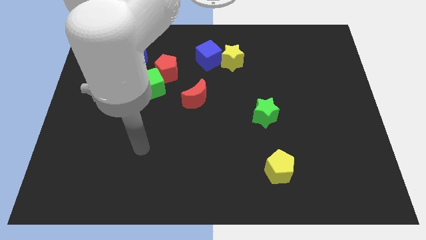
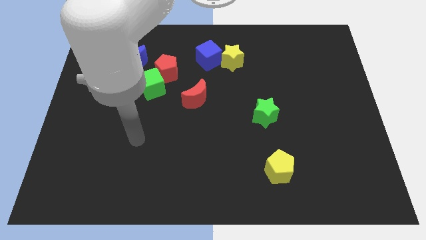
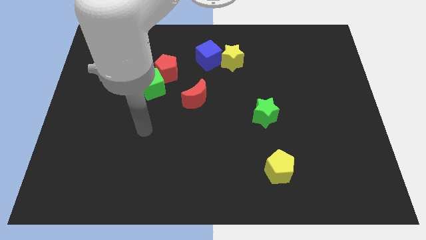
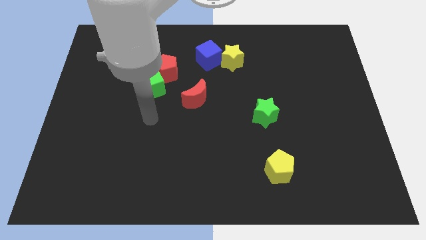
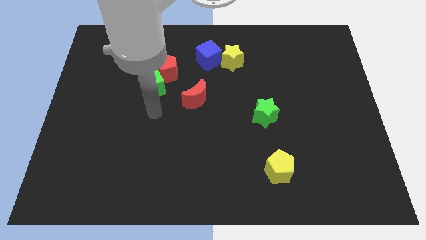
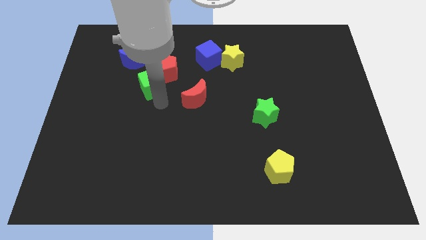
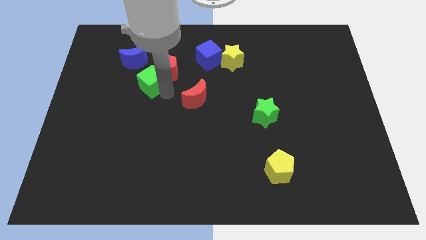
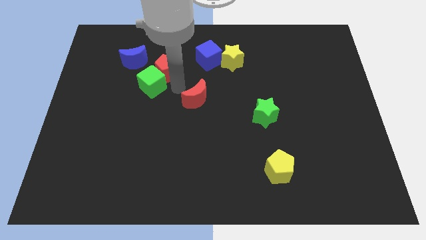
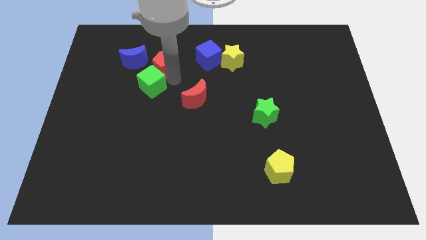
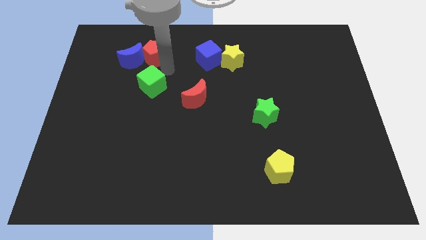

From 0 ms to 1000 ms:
separate the green cube from the red pentagon

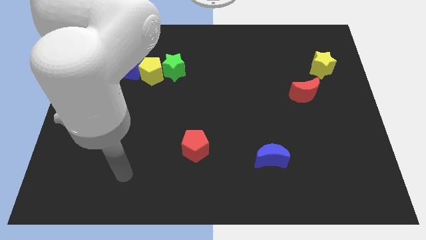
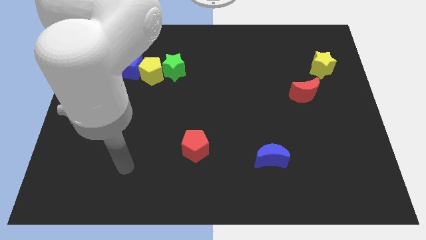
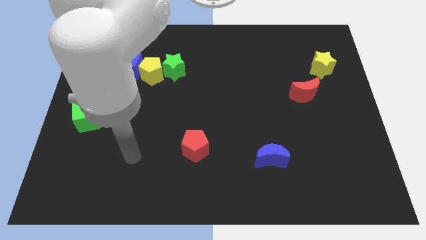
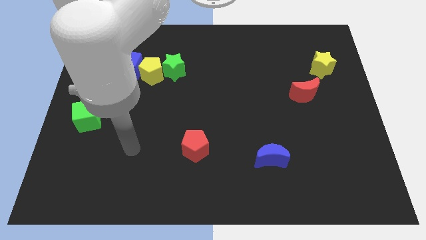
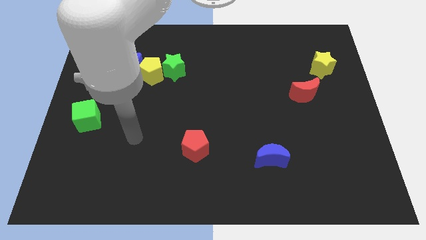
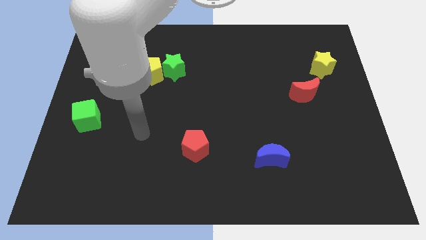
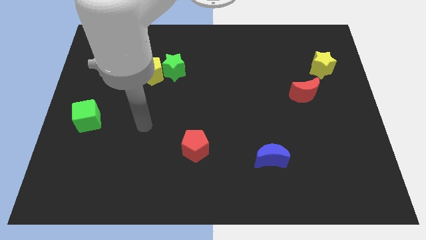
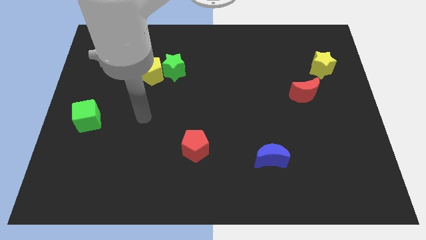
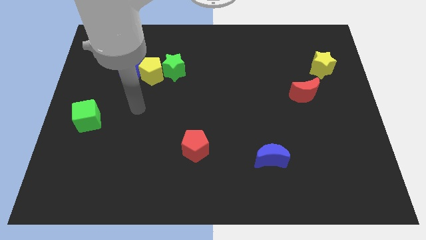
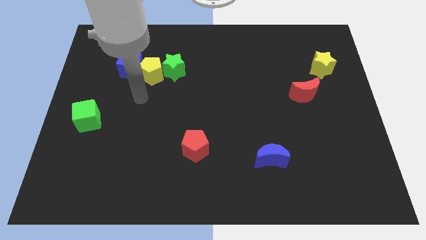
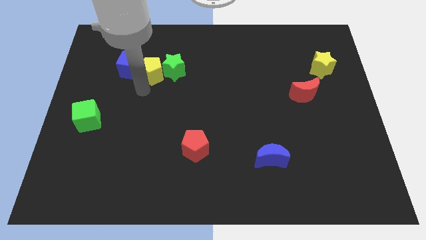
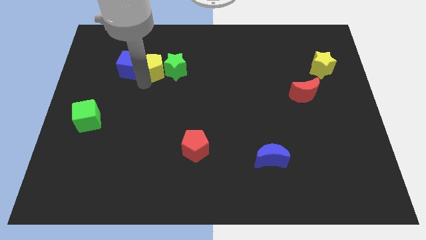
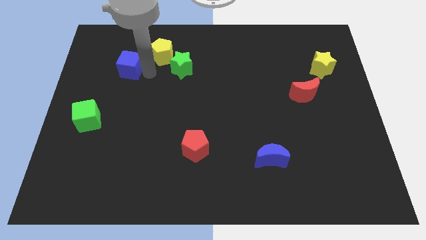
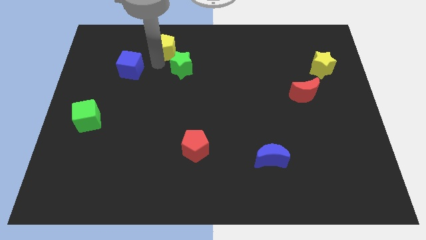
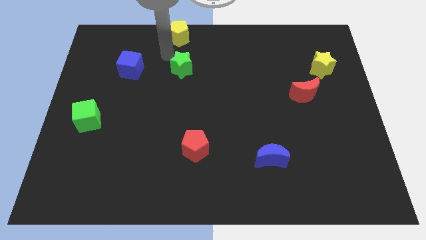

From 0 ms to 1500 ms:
separate the green star from the yellow pentagon

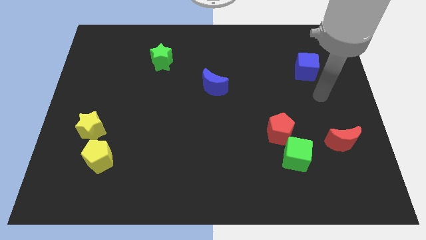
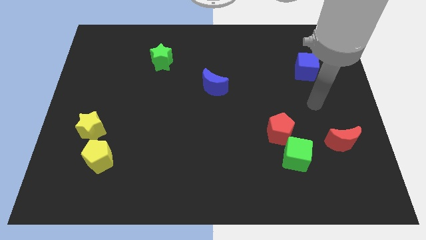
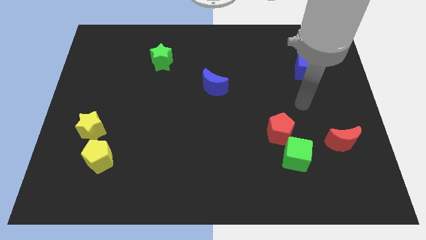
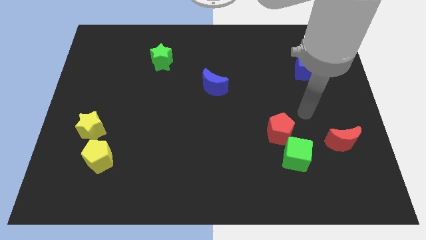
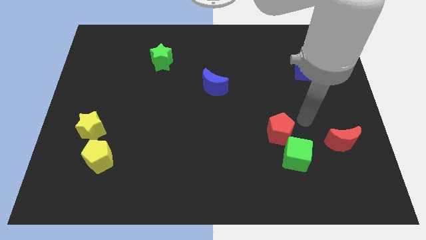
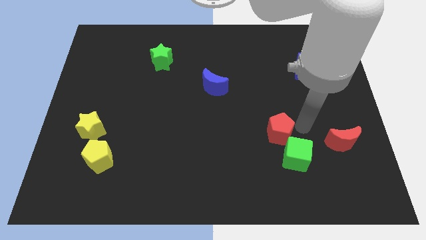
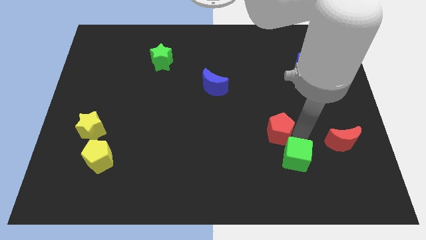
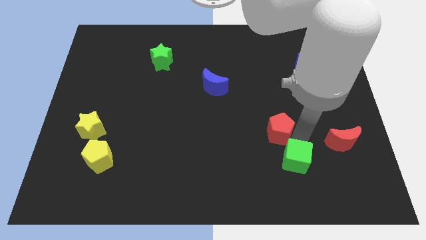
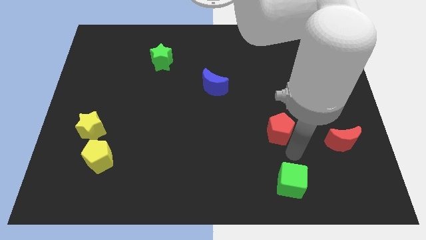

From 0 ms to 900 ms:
separate the red pentagon from the green cube

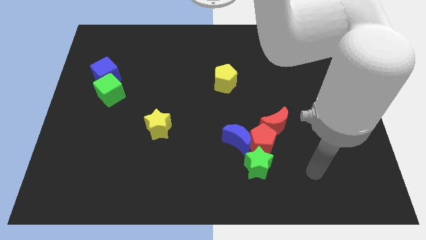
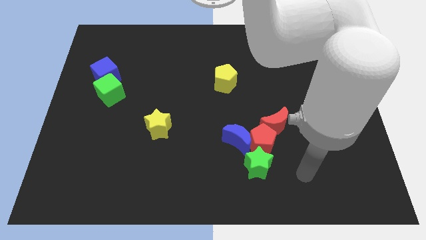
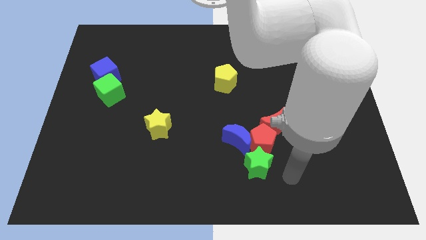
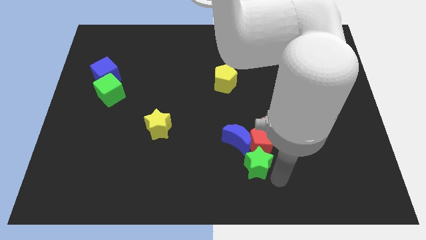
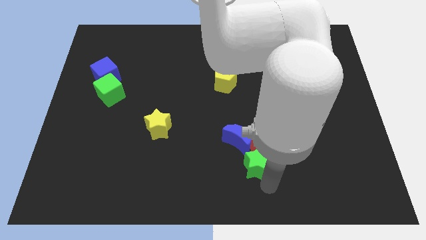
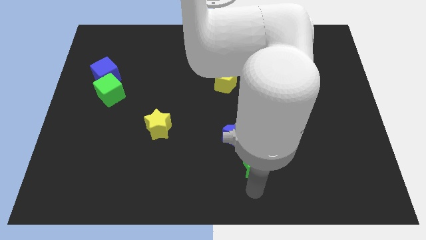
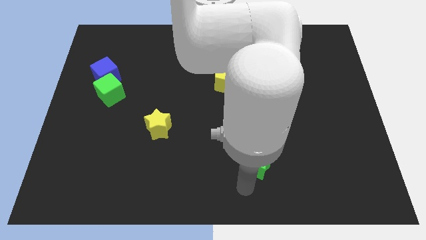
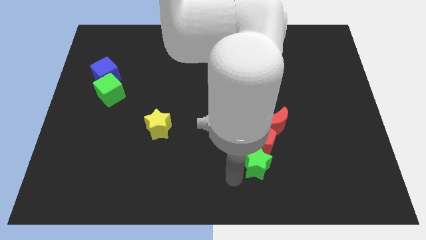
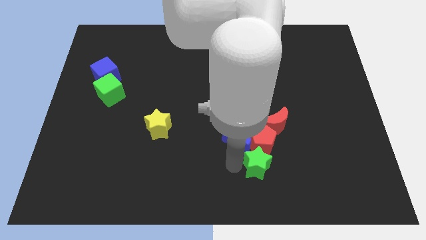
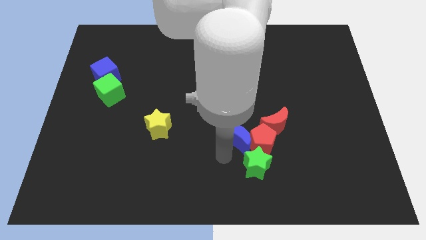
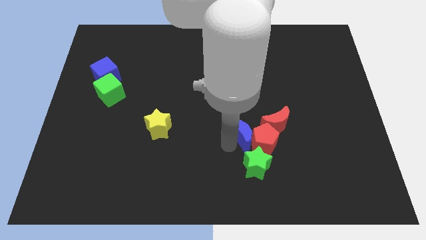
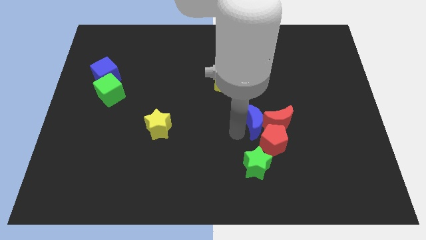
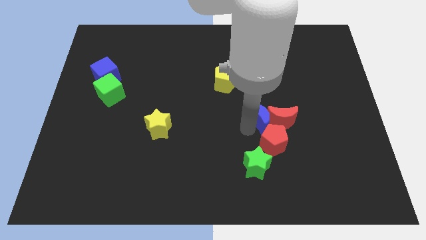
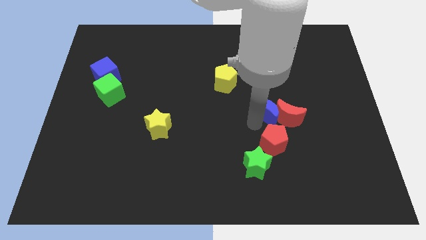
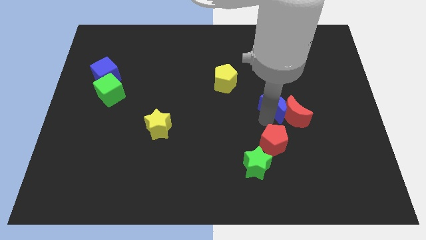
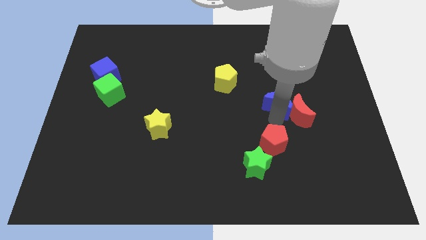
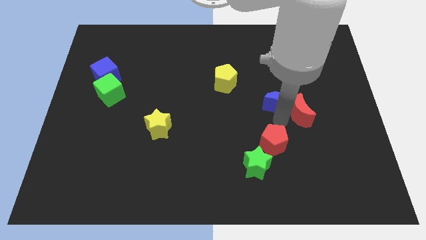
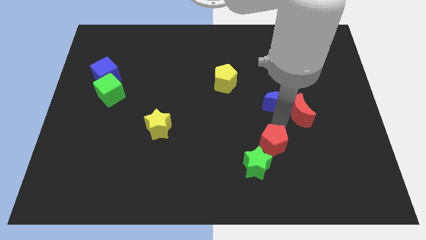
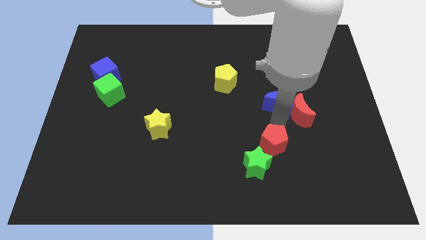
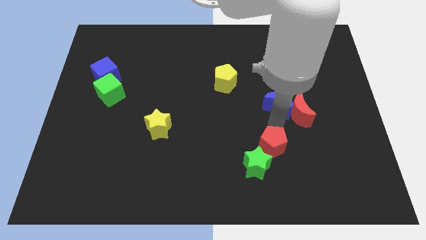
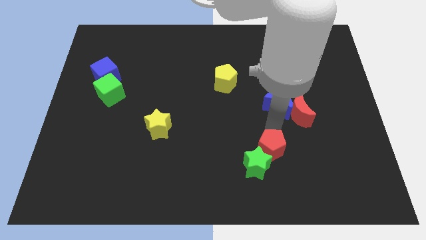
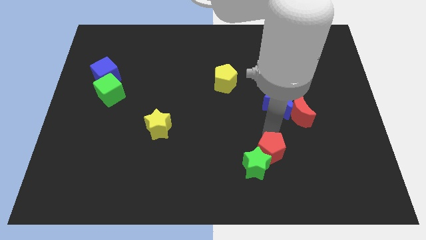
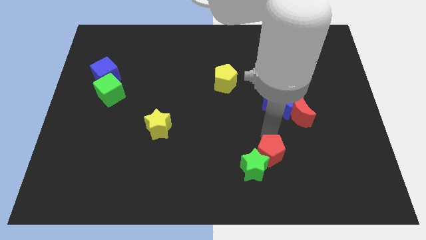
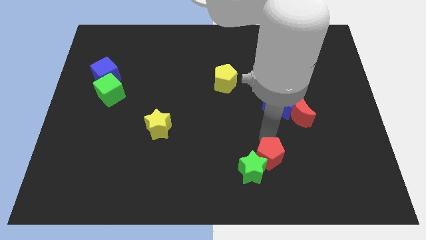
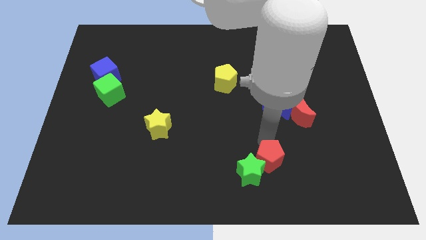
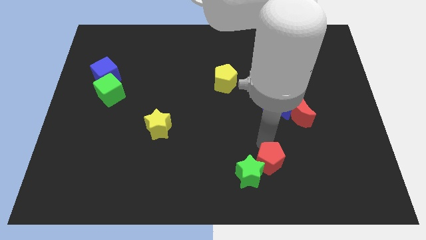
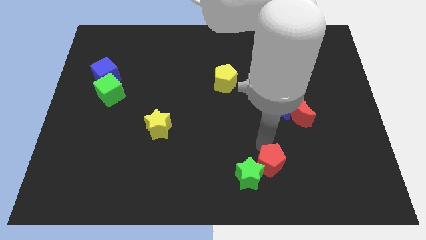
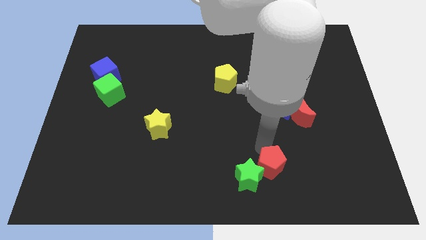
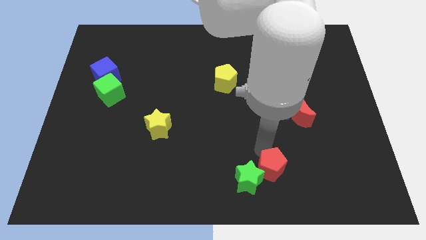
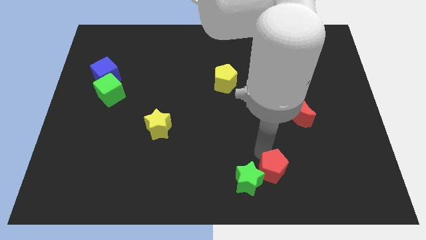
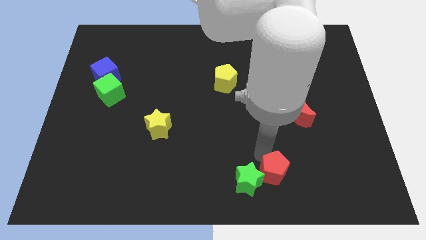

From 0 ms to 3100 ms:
move the red pentagon away from the blue moon, red moon, and green star

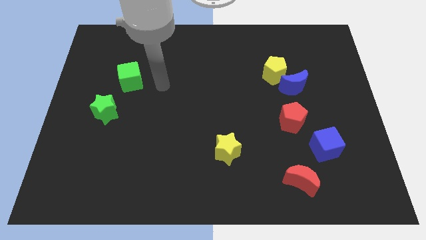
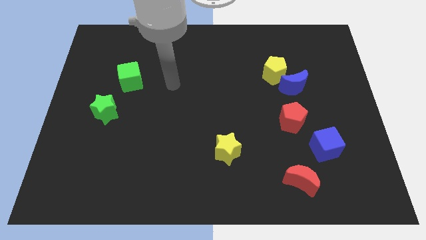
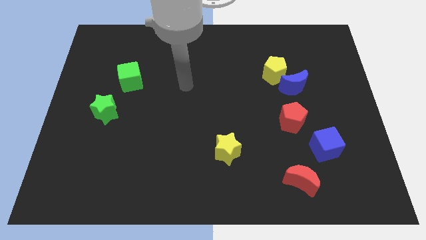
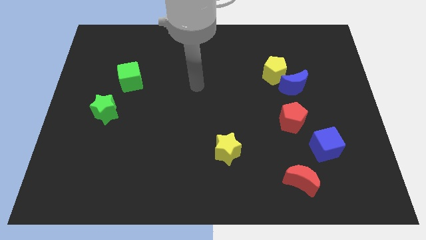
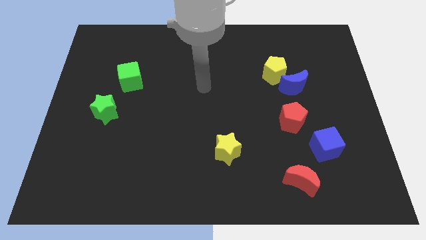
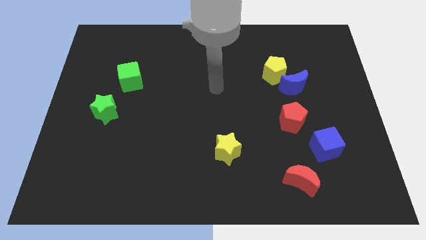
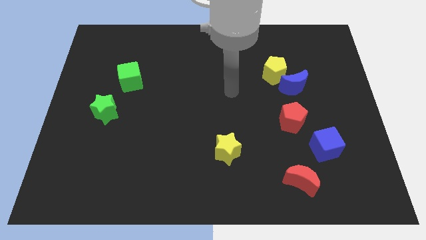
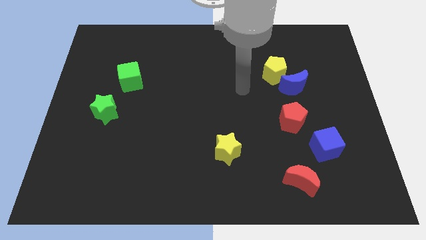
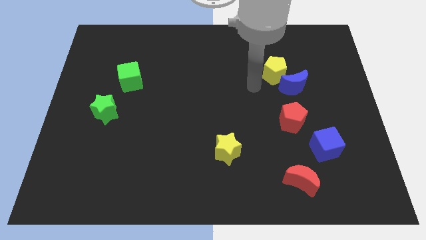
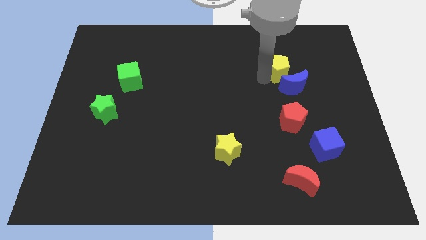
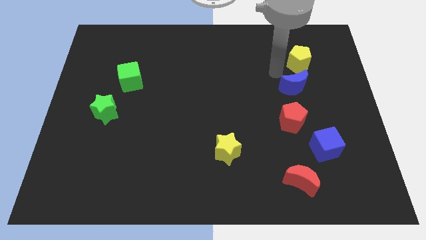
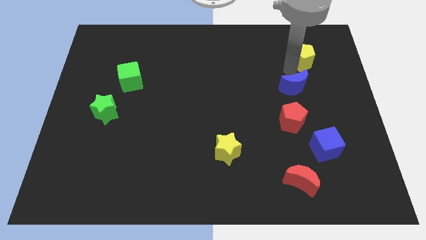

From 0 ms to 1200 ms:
separate the blue moon from the yellow pentagon

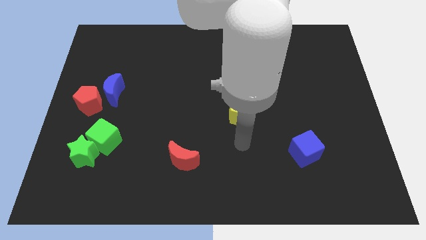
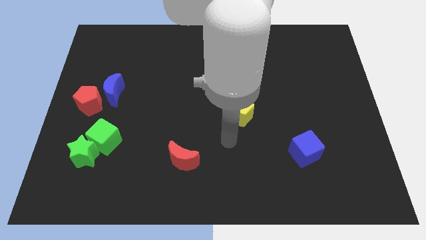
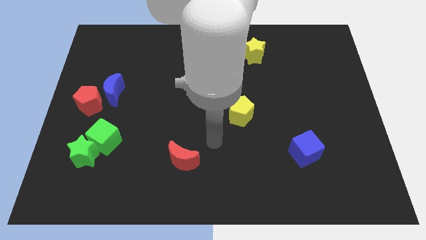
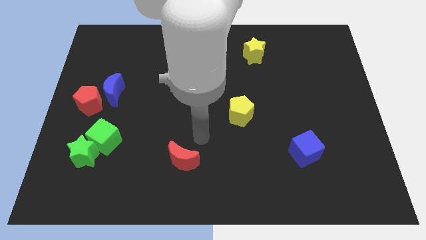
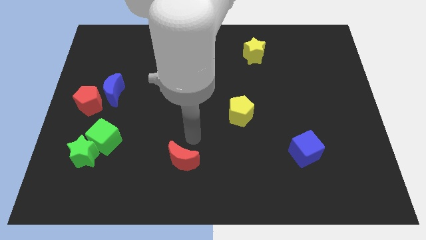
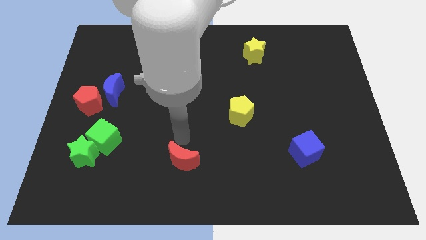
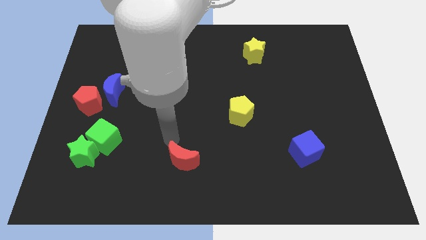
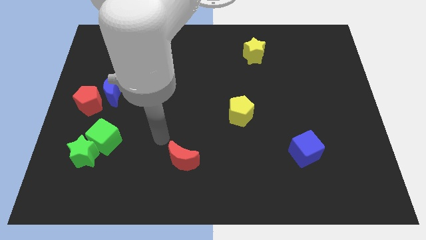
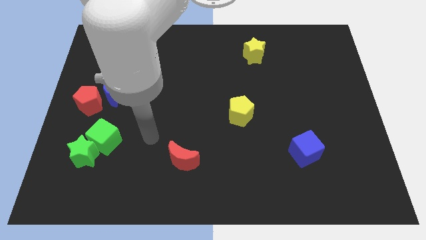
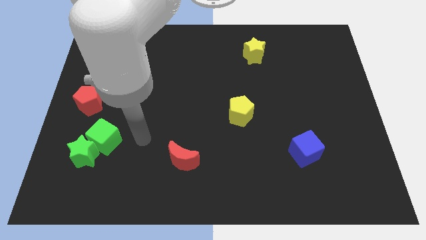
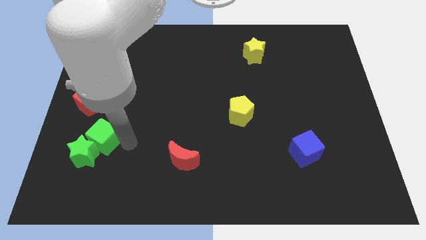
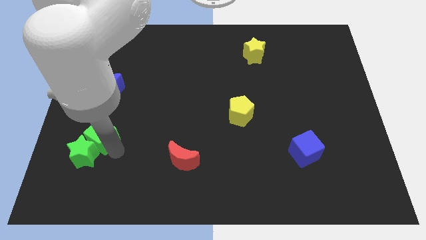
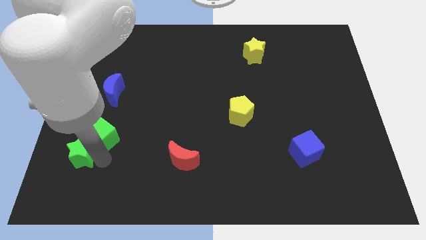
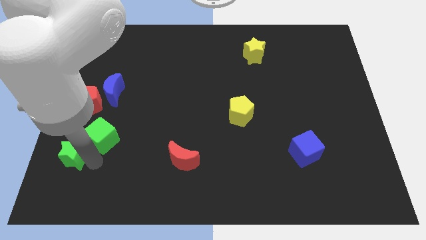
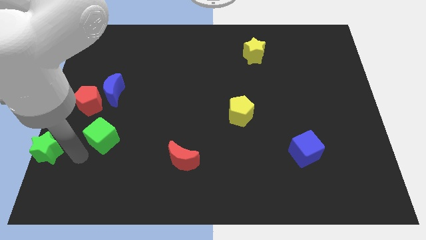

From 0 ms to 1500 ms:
move the green cube away from the green star
